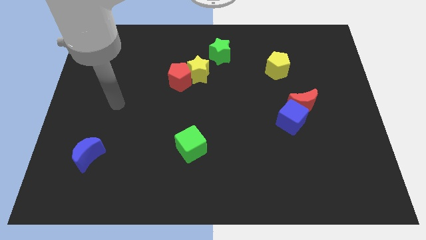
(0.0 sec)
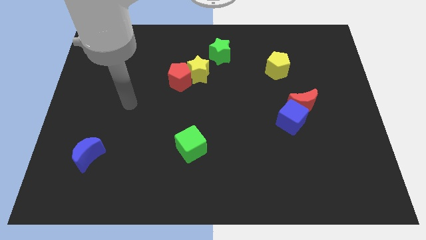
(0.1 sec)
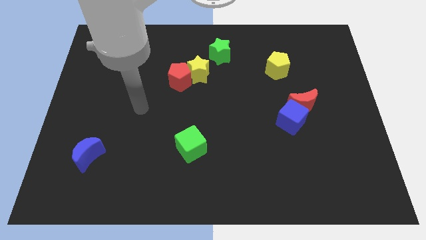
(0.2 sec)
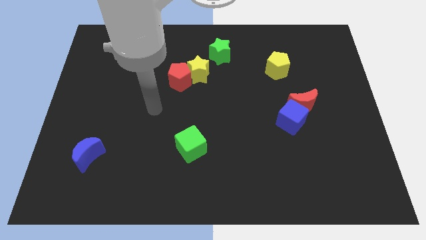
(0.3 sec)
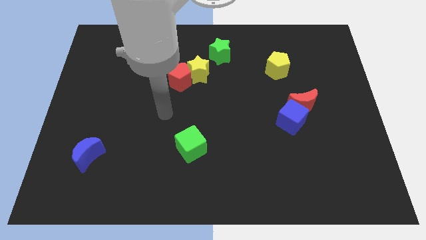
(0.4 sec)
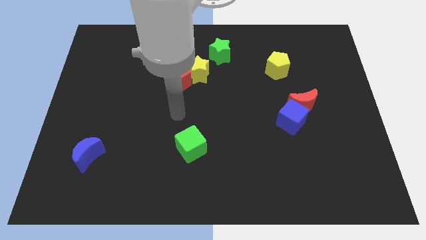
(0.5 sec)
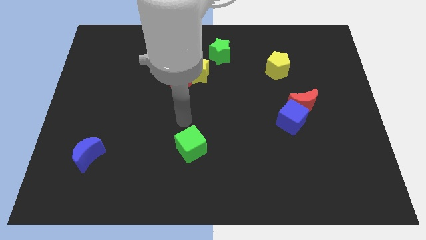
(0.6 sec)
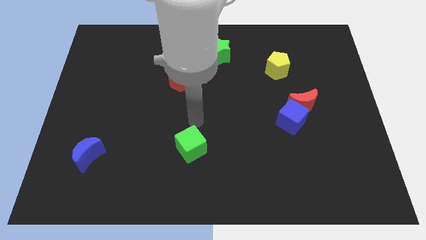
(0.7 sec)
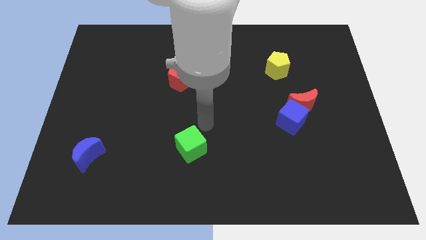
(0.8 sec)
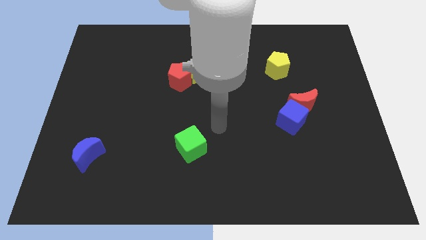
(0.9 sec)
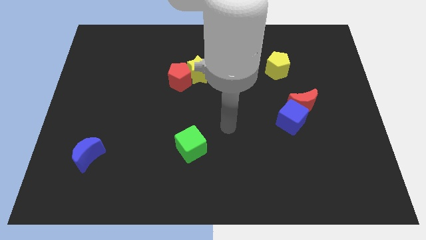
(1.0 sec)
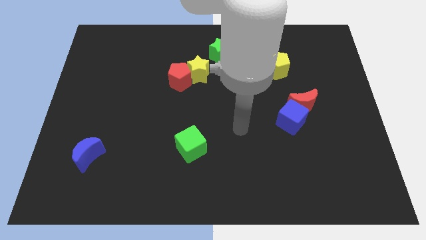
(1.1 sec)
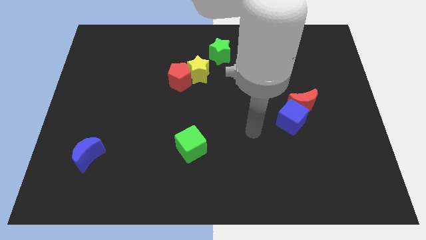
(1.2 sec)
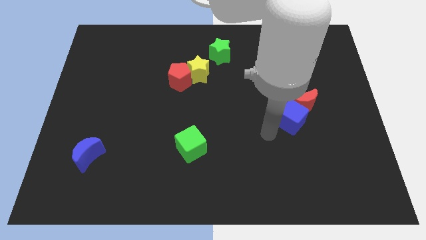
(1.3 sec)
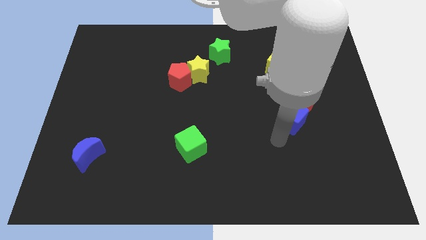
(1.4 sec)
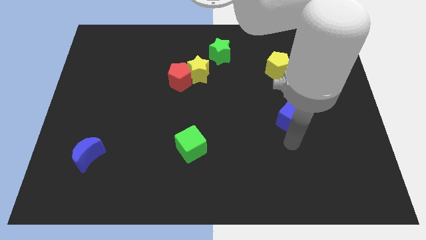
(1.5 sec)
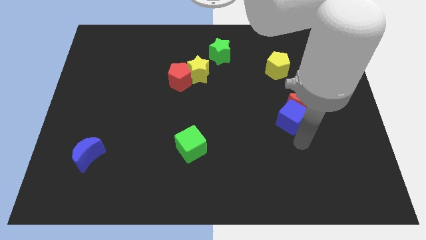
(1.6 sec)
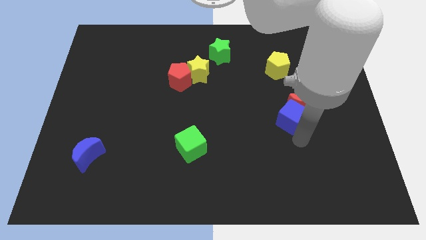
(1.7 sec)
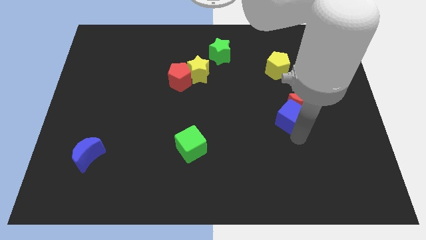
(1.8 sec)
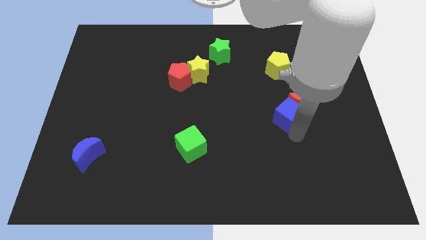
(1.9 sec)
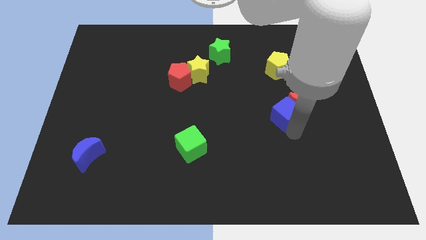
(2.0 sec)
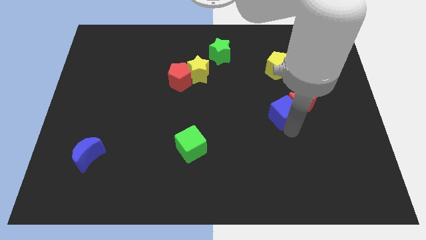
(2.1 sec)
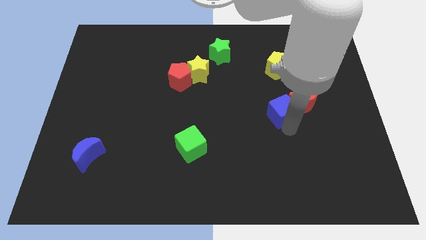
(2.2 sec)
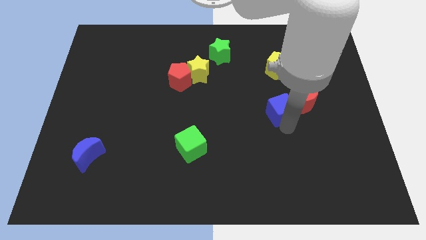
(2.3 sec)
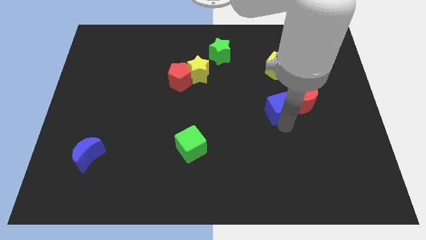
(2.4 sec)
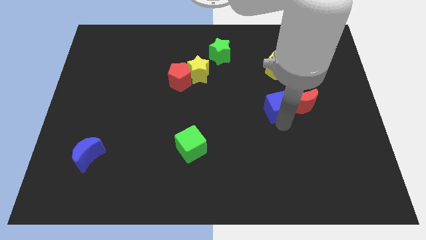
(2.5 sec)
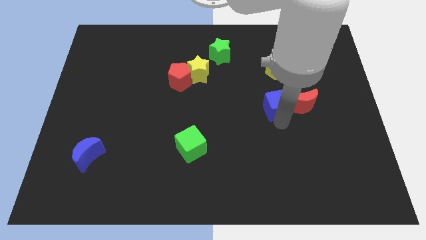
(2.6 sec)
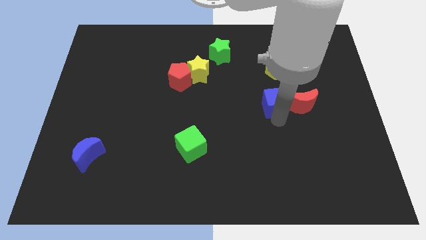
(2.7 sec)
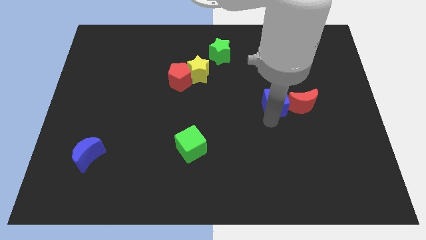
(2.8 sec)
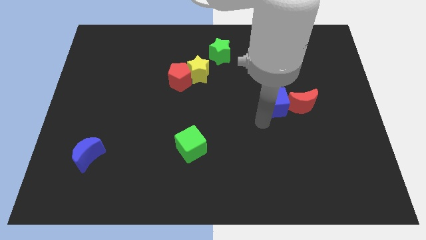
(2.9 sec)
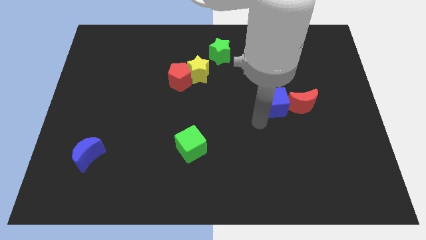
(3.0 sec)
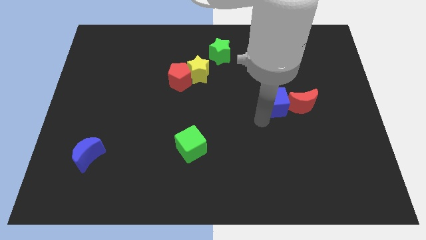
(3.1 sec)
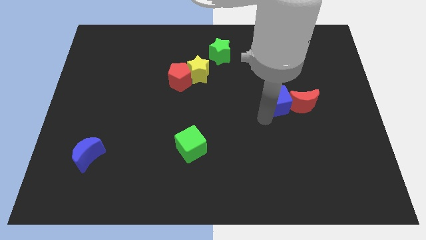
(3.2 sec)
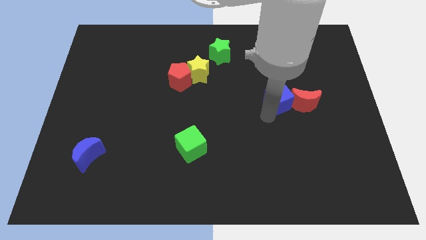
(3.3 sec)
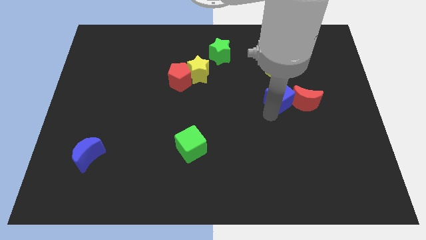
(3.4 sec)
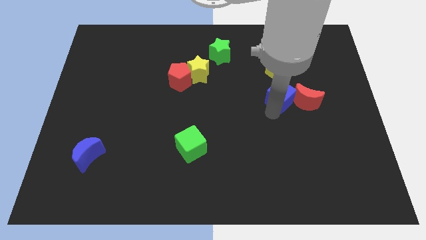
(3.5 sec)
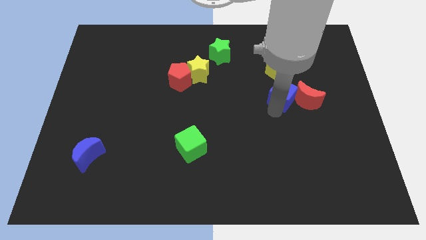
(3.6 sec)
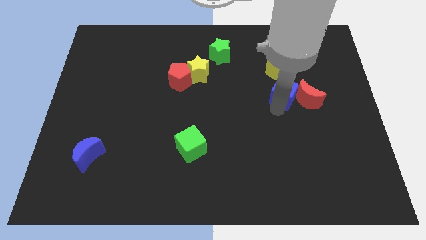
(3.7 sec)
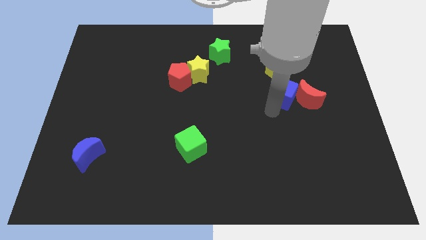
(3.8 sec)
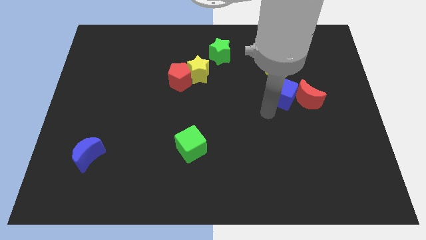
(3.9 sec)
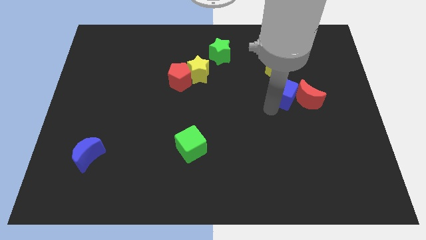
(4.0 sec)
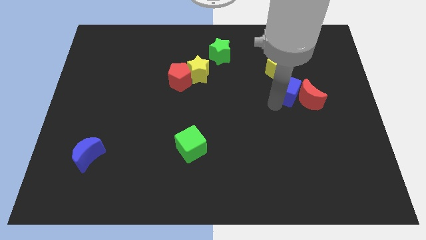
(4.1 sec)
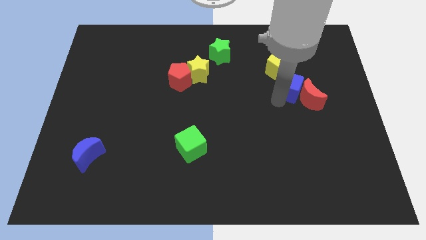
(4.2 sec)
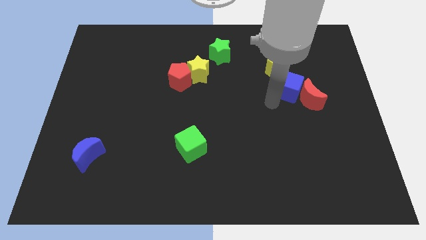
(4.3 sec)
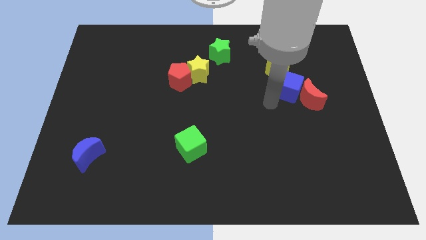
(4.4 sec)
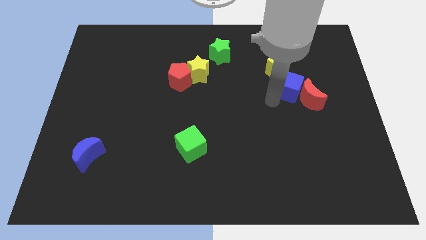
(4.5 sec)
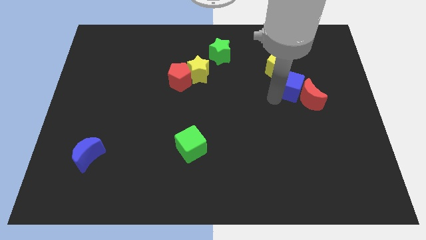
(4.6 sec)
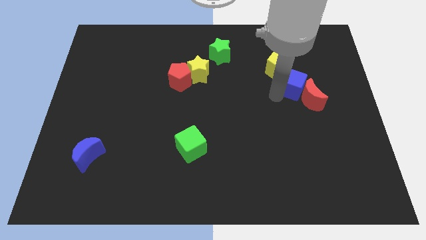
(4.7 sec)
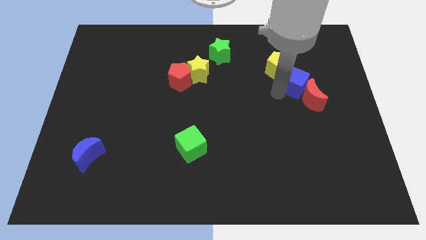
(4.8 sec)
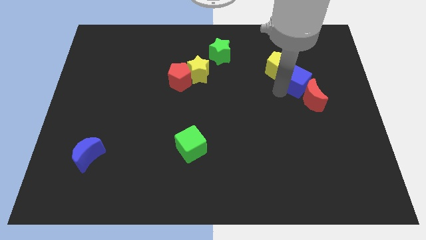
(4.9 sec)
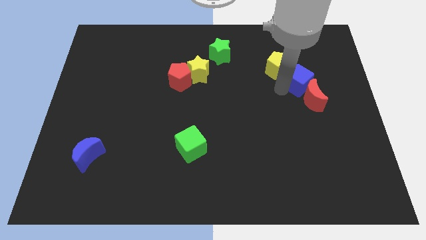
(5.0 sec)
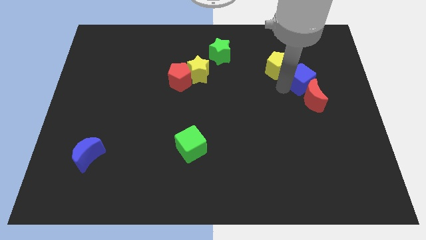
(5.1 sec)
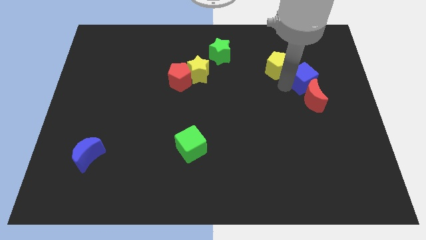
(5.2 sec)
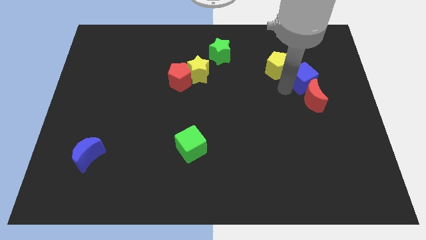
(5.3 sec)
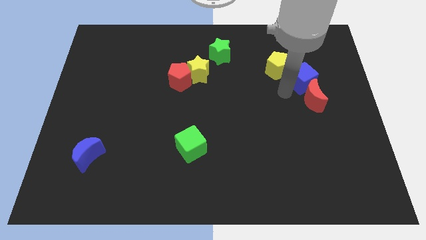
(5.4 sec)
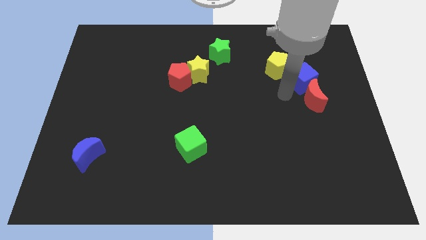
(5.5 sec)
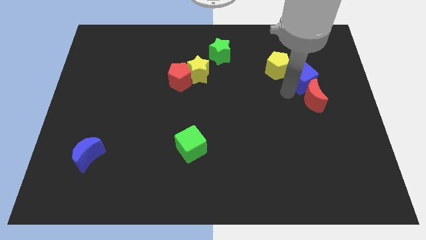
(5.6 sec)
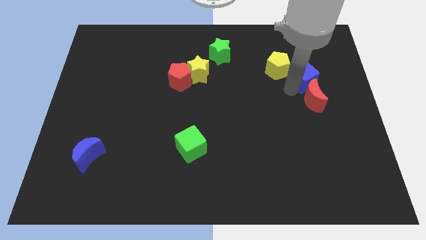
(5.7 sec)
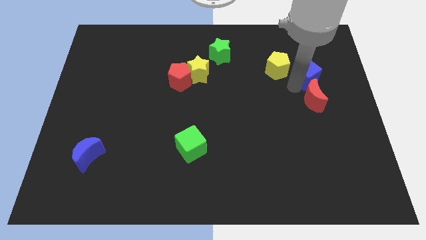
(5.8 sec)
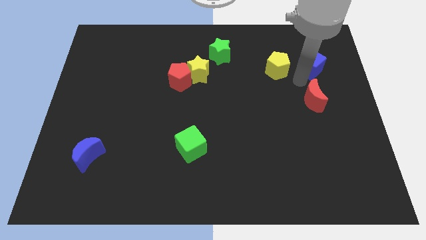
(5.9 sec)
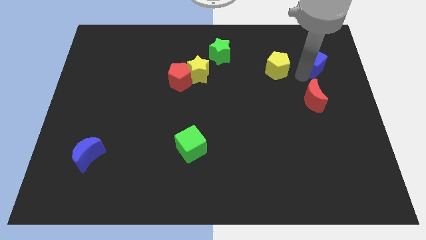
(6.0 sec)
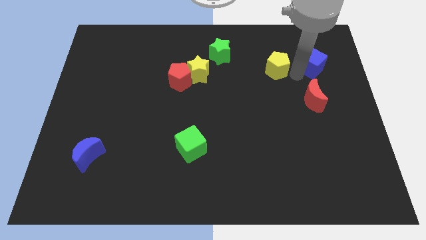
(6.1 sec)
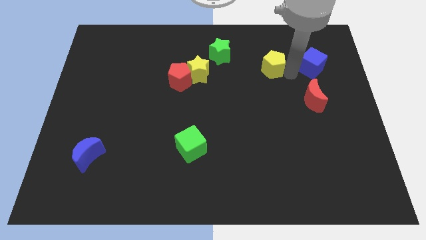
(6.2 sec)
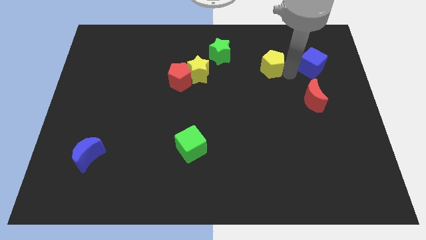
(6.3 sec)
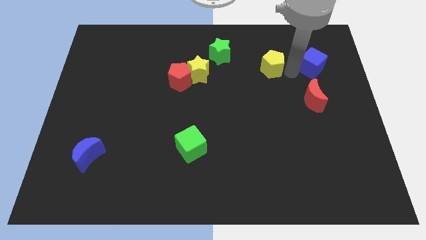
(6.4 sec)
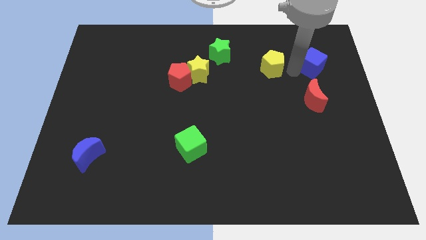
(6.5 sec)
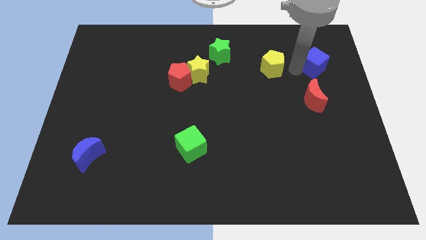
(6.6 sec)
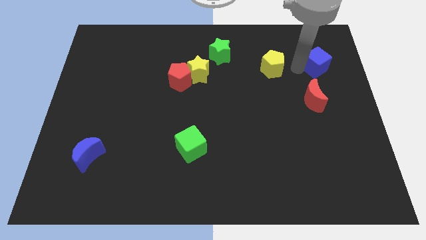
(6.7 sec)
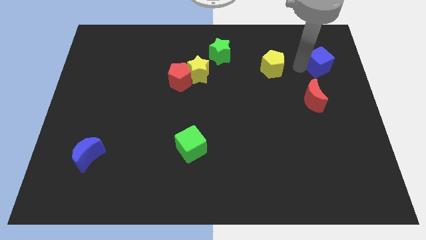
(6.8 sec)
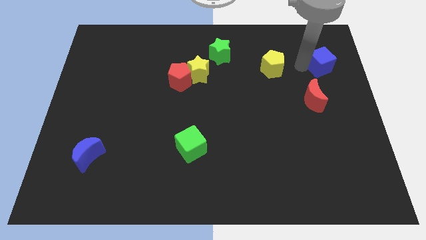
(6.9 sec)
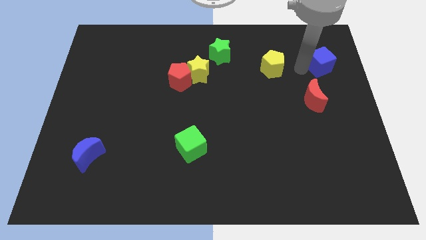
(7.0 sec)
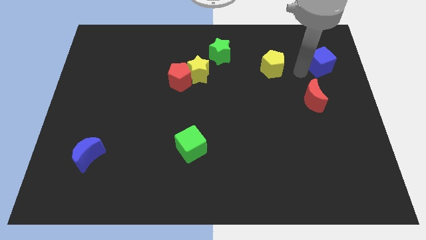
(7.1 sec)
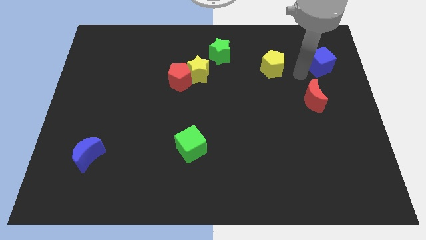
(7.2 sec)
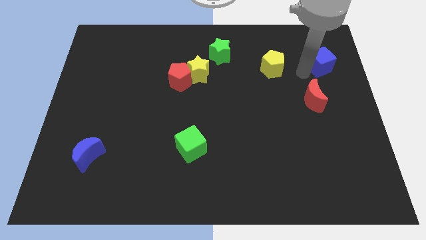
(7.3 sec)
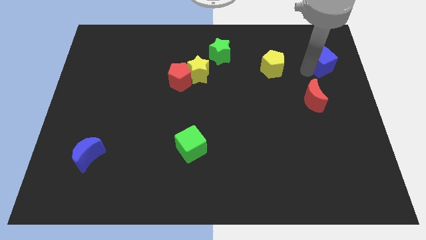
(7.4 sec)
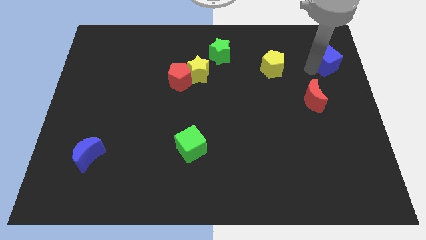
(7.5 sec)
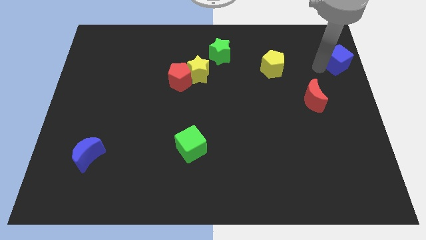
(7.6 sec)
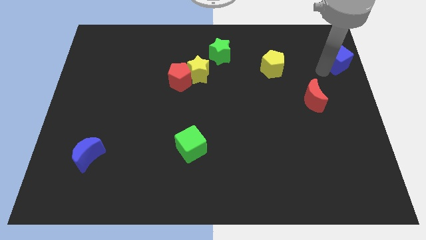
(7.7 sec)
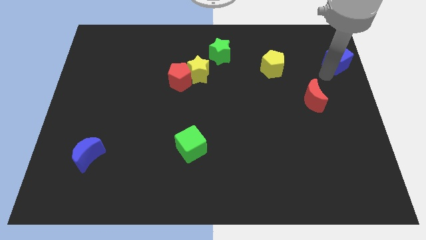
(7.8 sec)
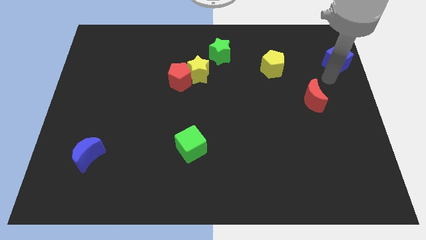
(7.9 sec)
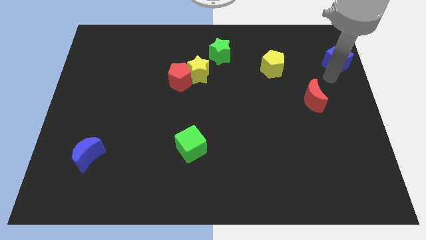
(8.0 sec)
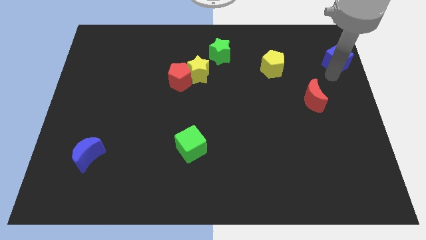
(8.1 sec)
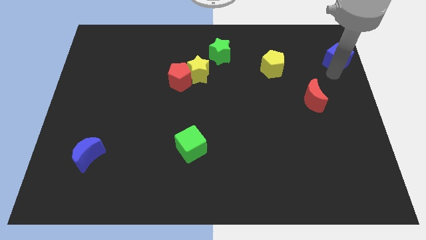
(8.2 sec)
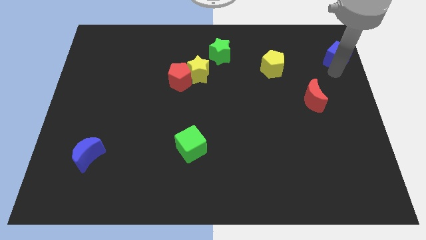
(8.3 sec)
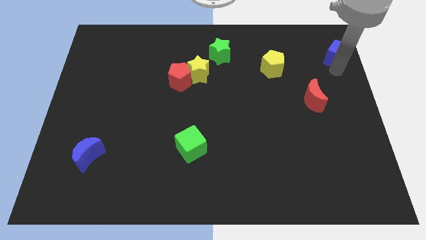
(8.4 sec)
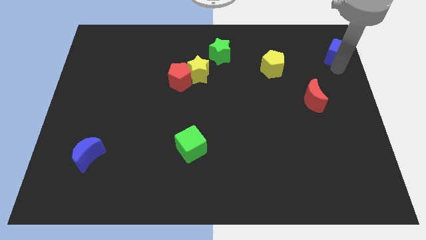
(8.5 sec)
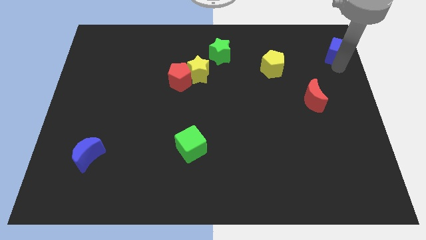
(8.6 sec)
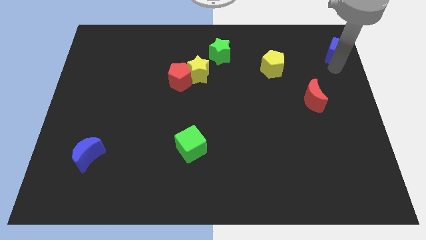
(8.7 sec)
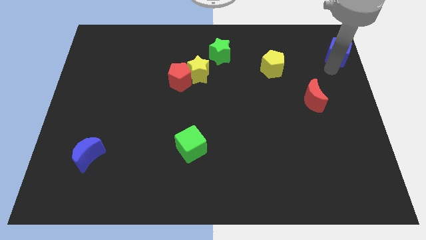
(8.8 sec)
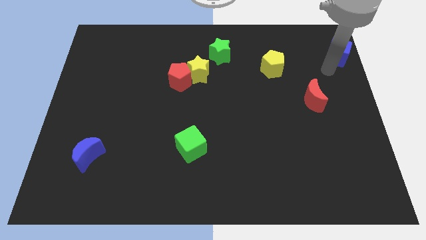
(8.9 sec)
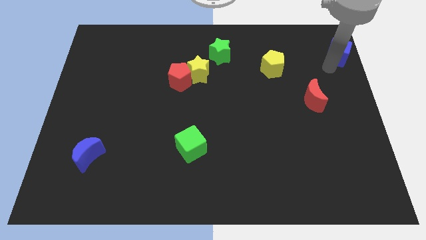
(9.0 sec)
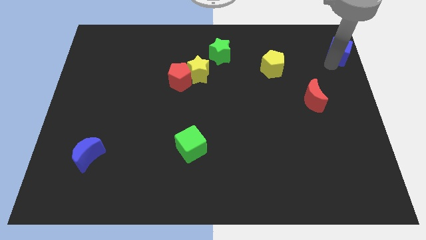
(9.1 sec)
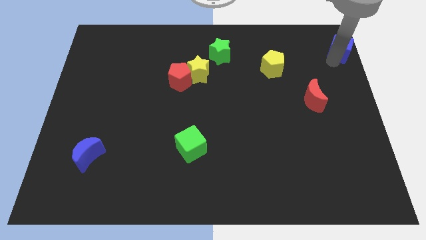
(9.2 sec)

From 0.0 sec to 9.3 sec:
push the blue cube to the top right of the board
